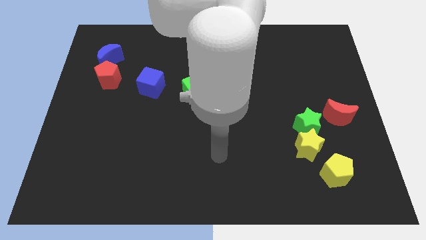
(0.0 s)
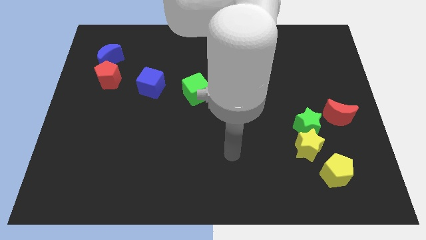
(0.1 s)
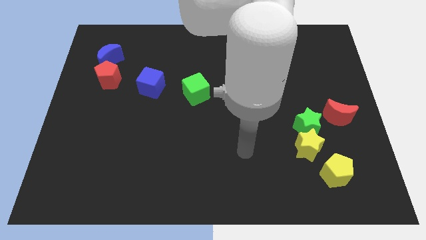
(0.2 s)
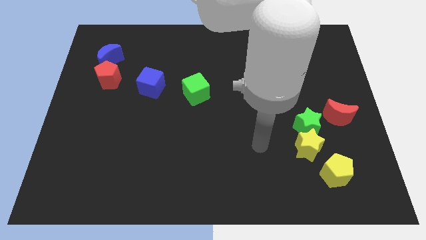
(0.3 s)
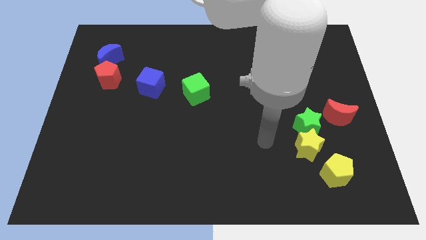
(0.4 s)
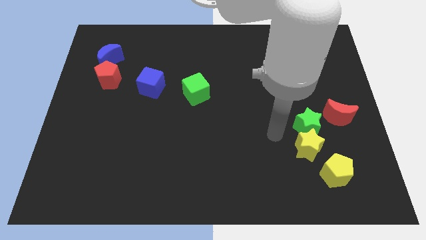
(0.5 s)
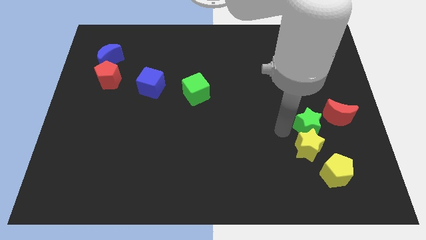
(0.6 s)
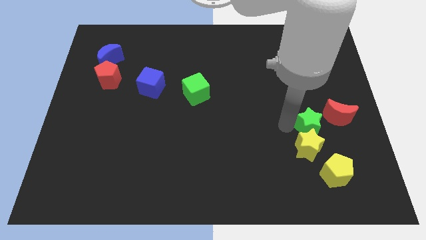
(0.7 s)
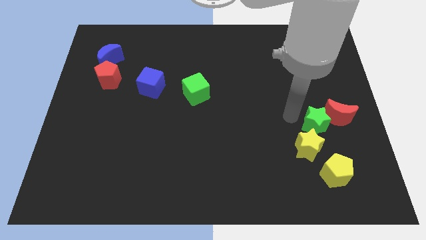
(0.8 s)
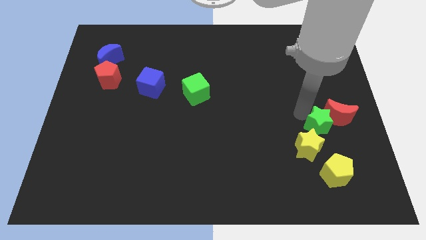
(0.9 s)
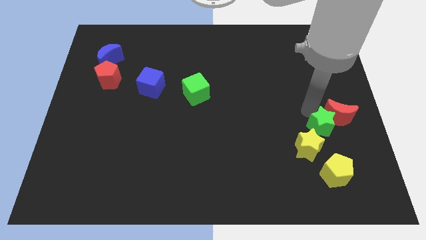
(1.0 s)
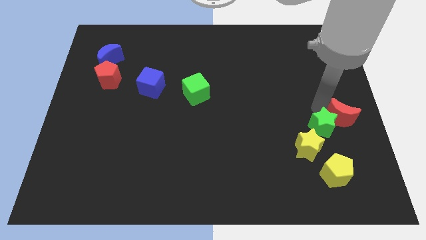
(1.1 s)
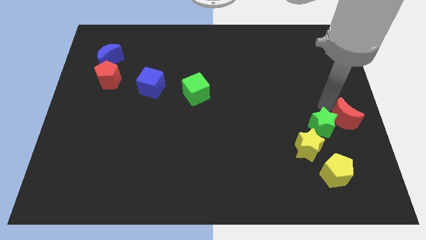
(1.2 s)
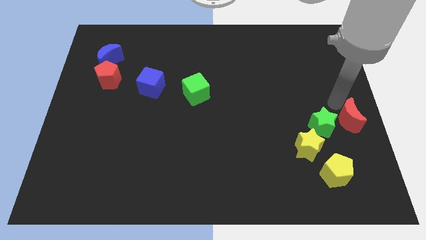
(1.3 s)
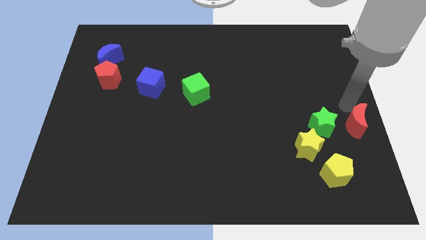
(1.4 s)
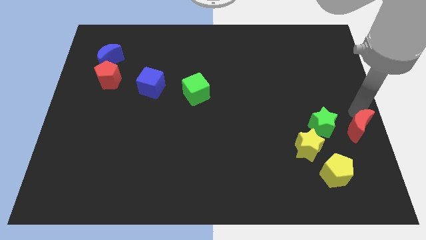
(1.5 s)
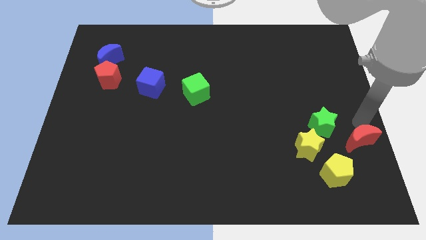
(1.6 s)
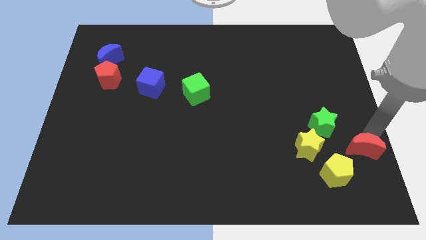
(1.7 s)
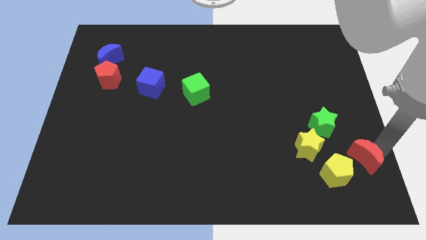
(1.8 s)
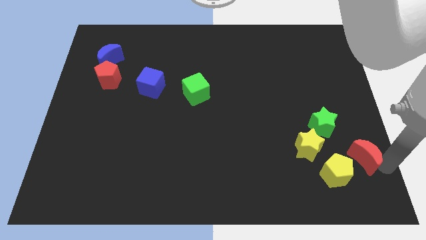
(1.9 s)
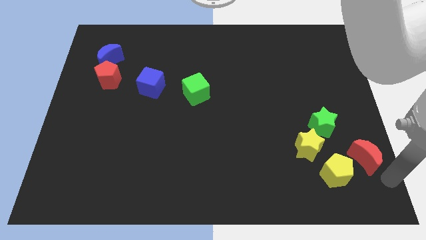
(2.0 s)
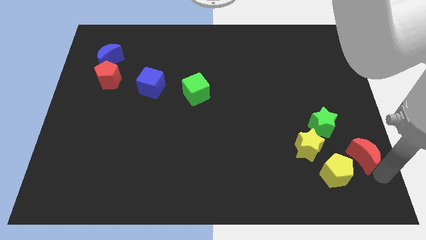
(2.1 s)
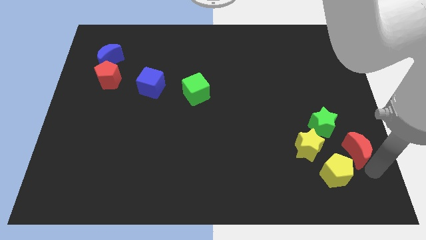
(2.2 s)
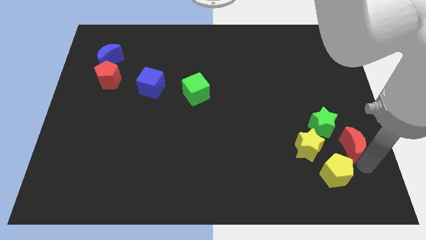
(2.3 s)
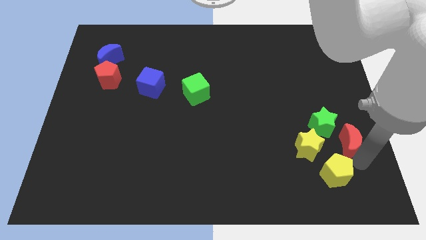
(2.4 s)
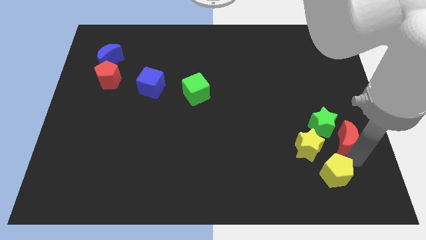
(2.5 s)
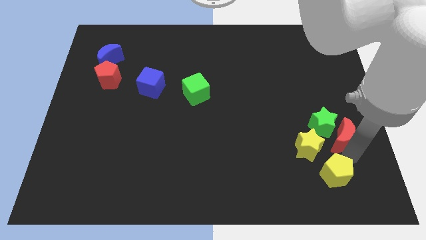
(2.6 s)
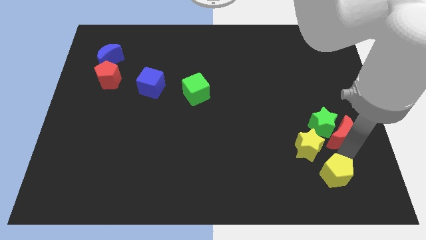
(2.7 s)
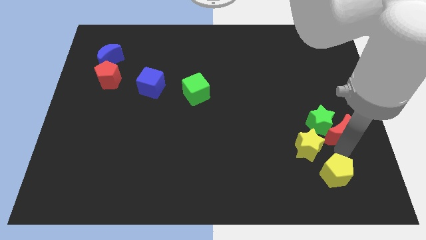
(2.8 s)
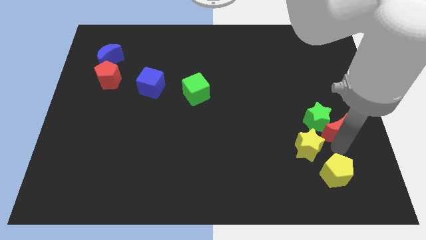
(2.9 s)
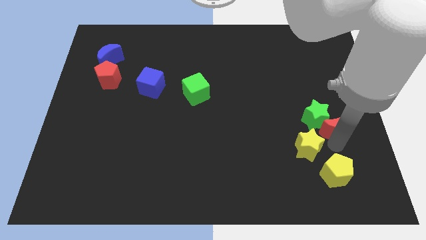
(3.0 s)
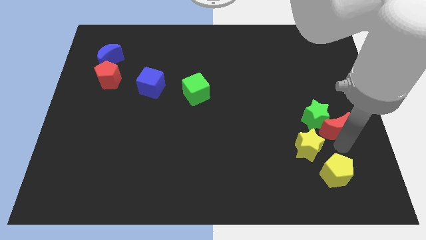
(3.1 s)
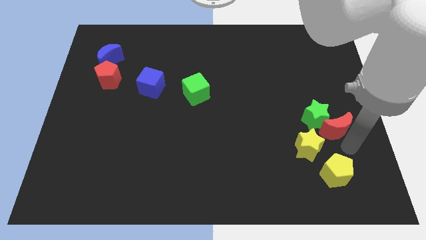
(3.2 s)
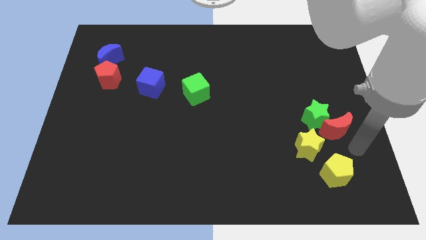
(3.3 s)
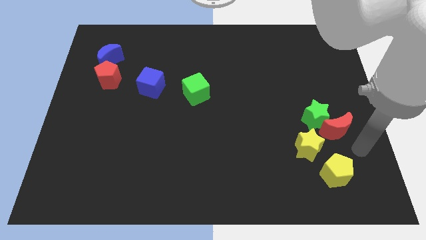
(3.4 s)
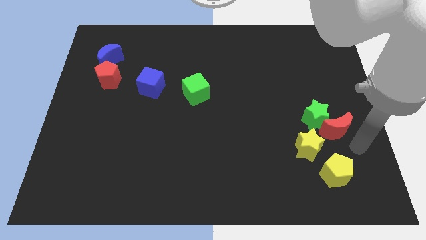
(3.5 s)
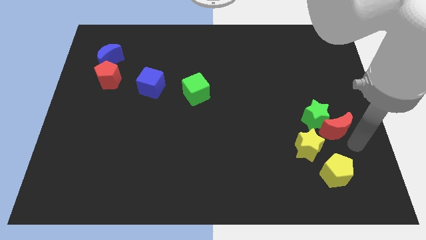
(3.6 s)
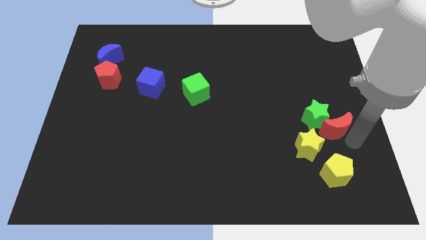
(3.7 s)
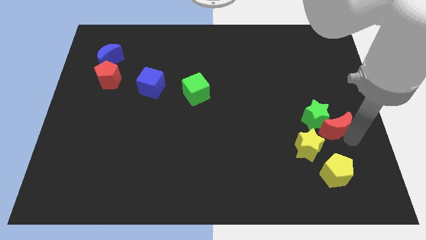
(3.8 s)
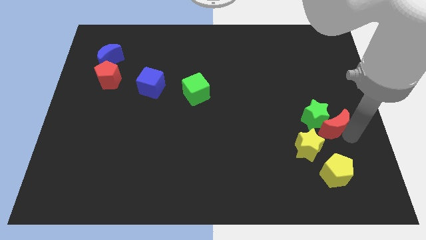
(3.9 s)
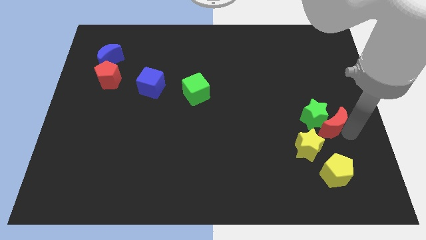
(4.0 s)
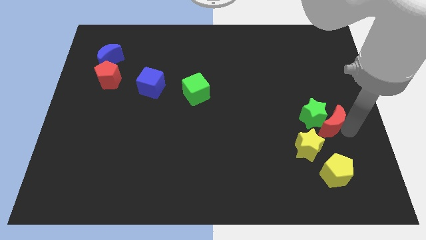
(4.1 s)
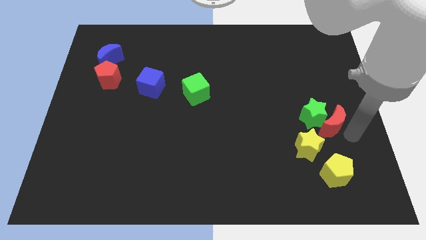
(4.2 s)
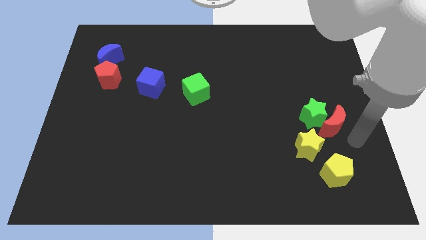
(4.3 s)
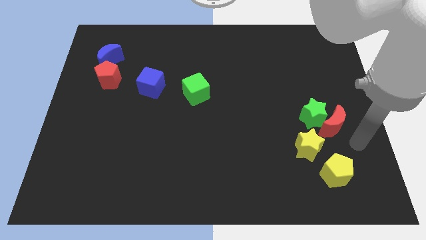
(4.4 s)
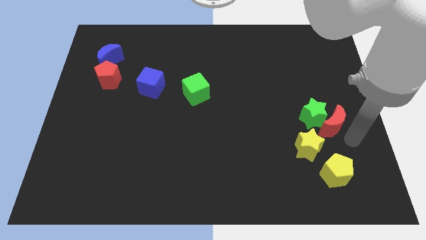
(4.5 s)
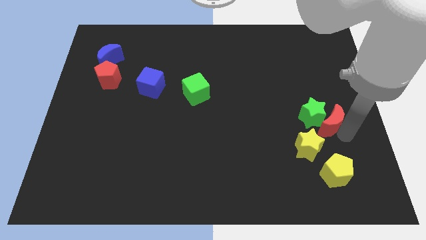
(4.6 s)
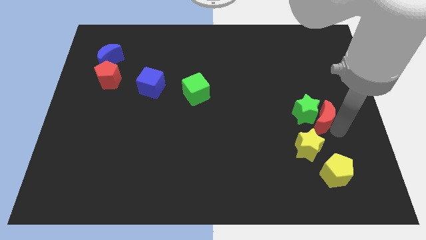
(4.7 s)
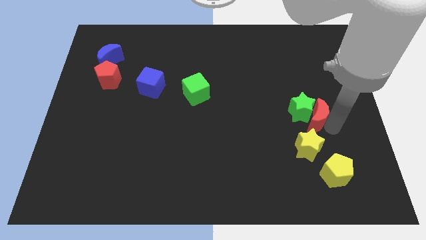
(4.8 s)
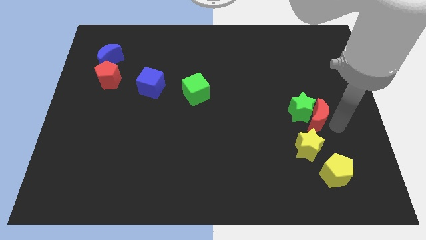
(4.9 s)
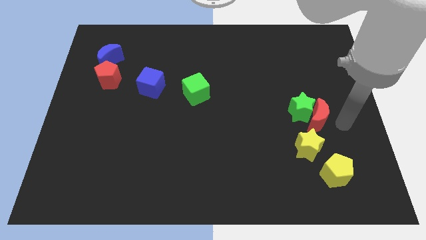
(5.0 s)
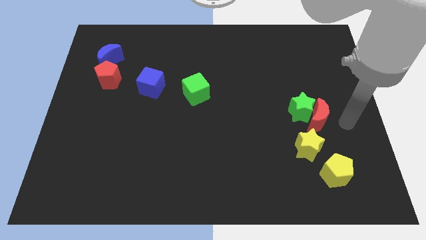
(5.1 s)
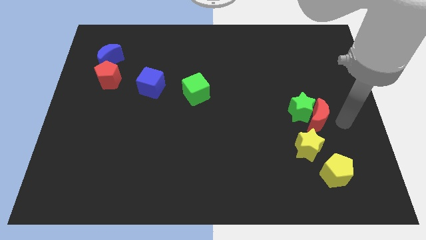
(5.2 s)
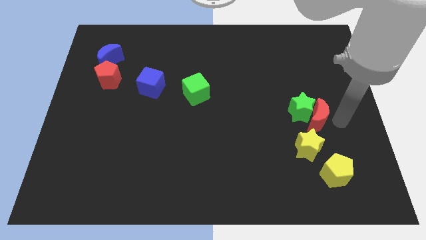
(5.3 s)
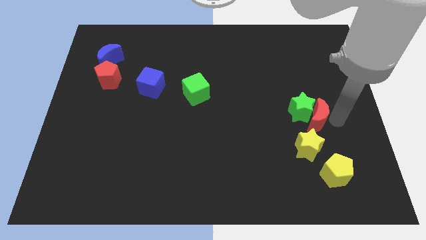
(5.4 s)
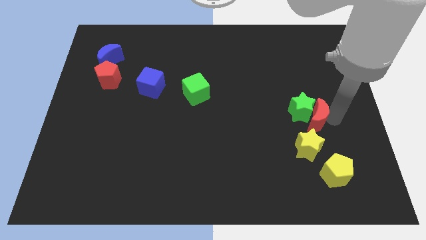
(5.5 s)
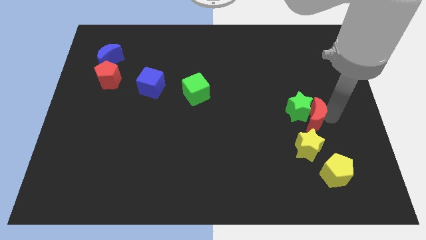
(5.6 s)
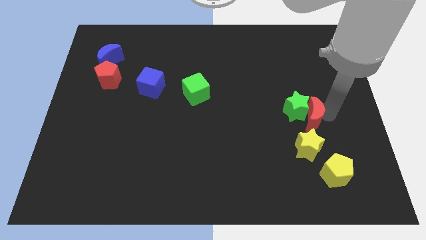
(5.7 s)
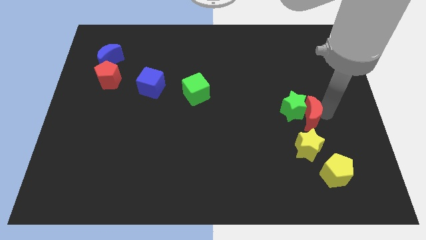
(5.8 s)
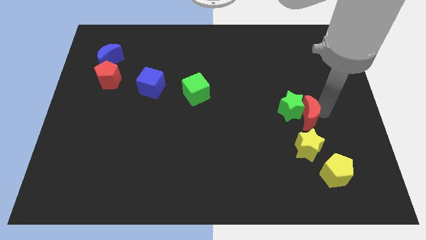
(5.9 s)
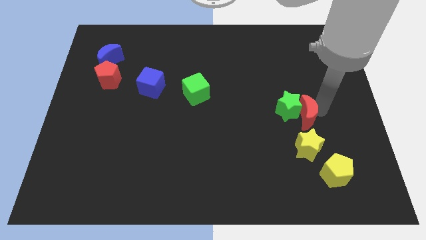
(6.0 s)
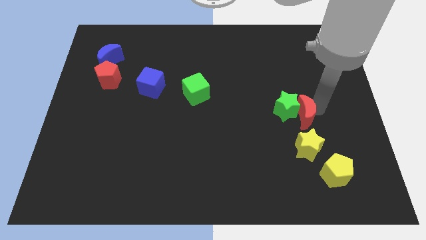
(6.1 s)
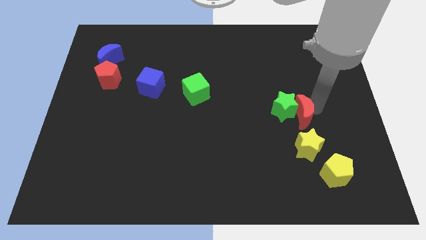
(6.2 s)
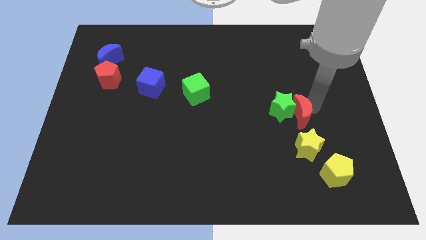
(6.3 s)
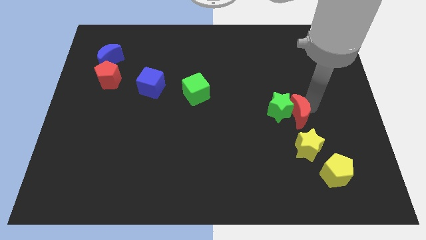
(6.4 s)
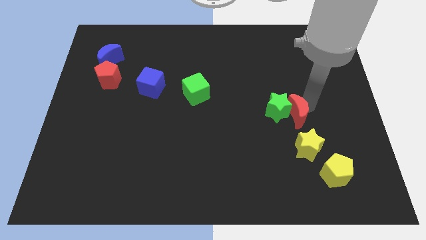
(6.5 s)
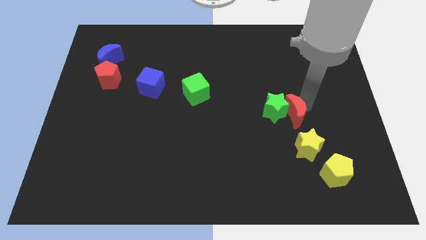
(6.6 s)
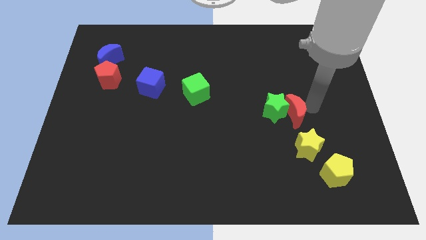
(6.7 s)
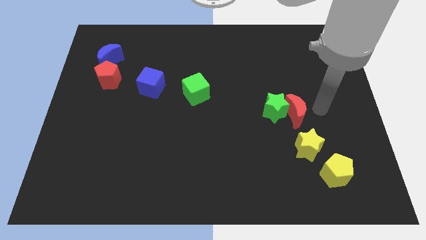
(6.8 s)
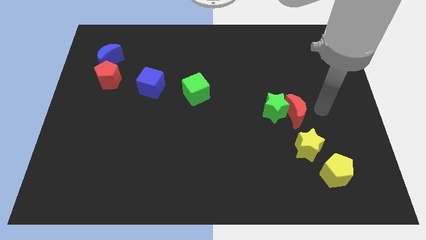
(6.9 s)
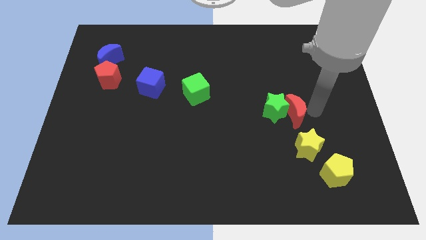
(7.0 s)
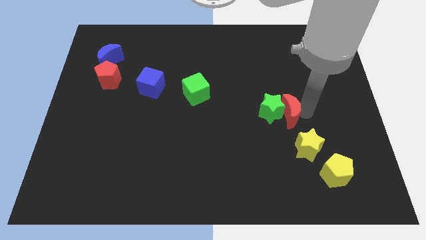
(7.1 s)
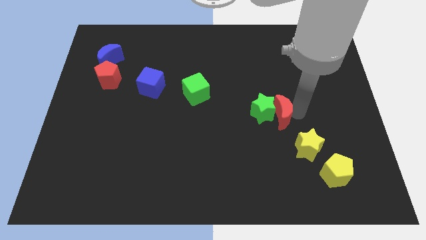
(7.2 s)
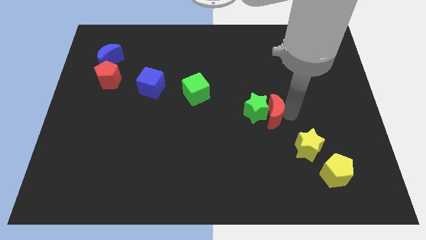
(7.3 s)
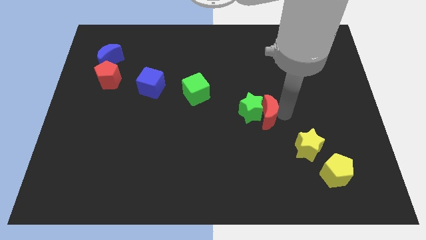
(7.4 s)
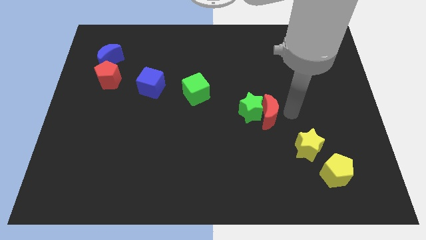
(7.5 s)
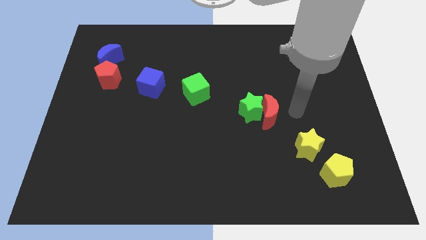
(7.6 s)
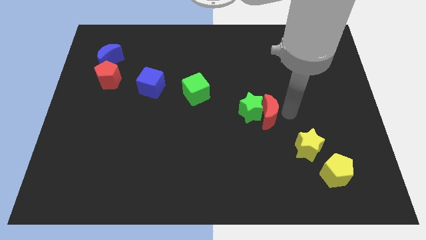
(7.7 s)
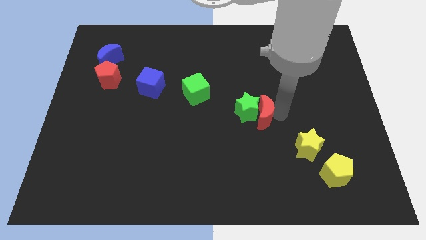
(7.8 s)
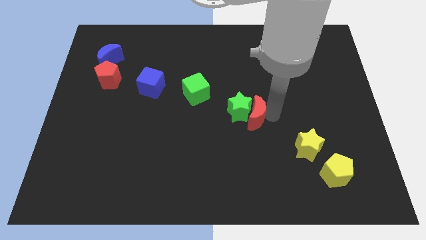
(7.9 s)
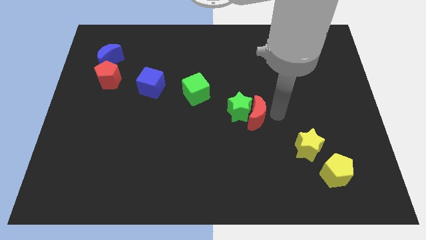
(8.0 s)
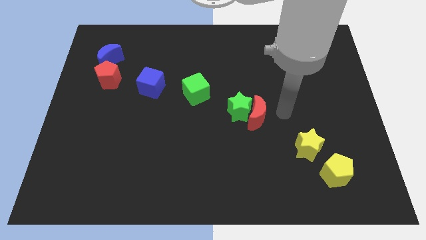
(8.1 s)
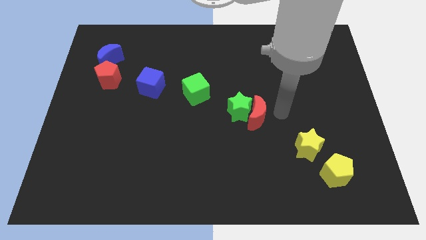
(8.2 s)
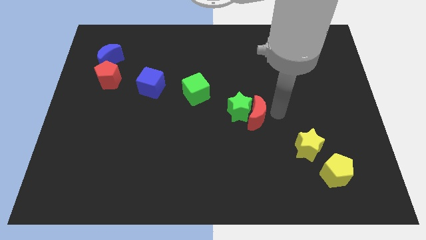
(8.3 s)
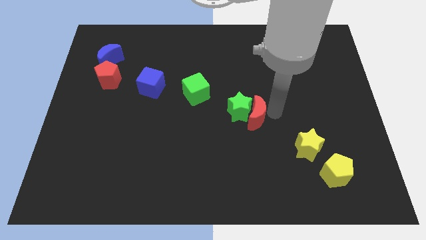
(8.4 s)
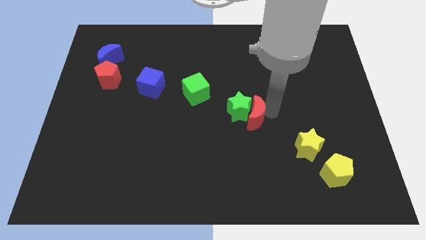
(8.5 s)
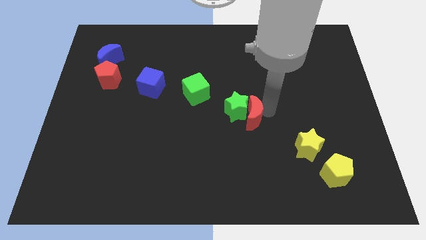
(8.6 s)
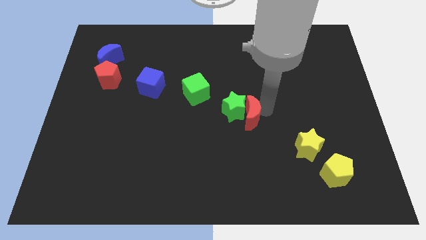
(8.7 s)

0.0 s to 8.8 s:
move the red moon left
